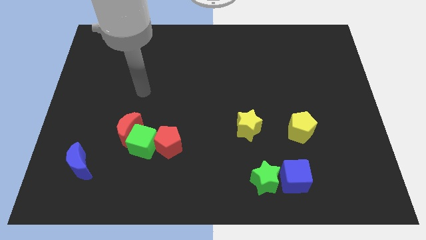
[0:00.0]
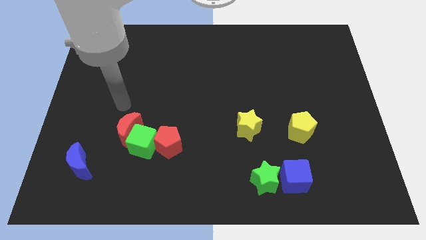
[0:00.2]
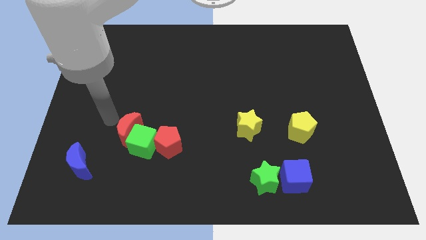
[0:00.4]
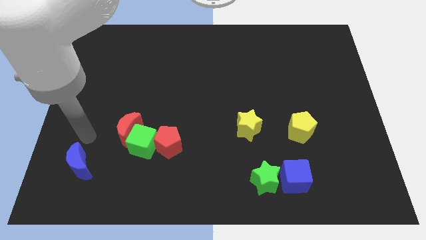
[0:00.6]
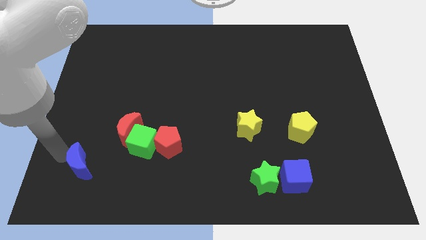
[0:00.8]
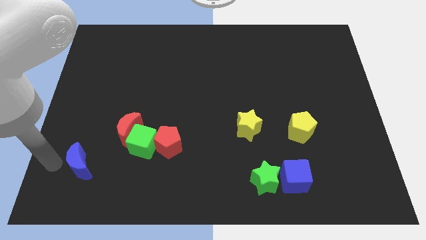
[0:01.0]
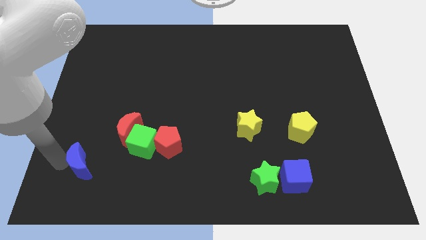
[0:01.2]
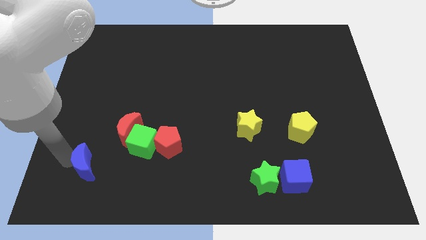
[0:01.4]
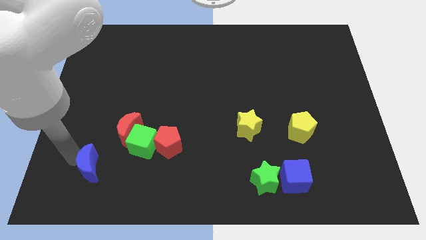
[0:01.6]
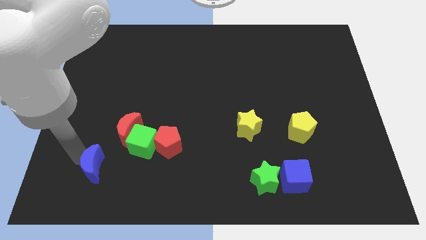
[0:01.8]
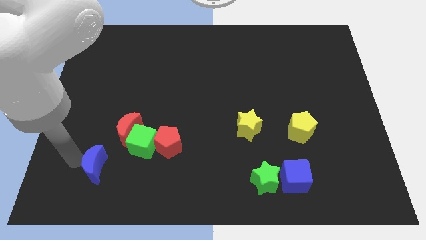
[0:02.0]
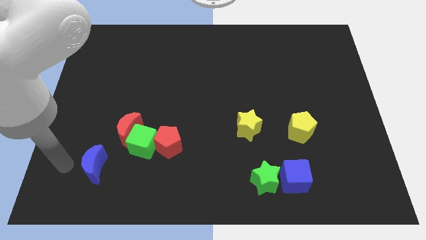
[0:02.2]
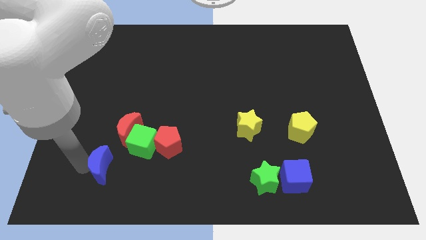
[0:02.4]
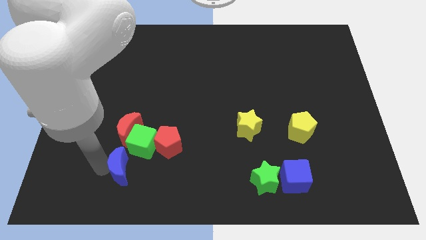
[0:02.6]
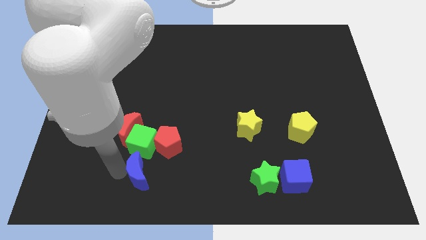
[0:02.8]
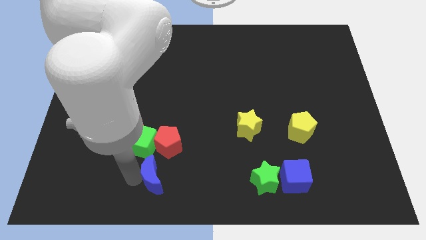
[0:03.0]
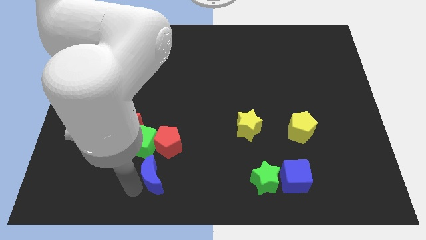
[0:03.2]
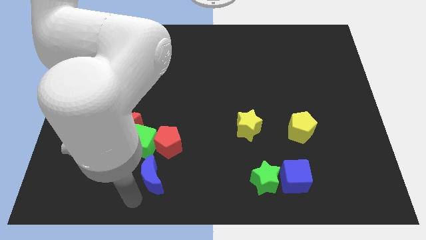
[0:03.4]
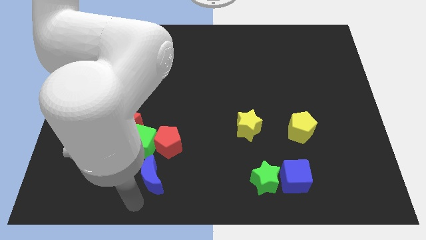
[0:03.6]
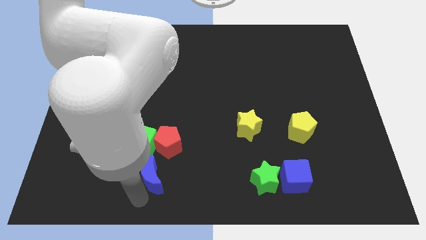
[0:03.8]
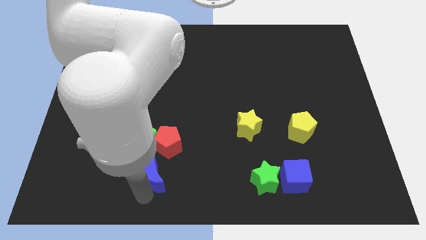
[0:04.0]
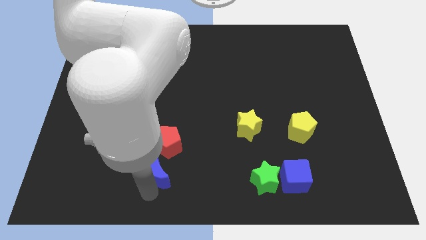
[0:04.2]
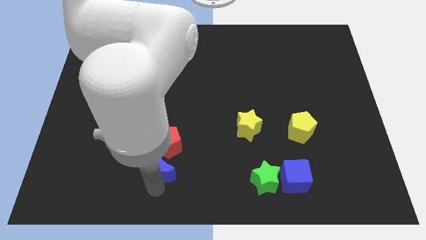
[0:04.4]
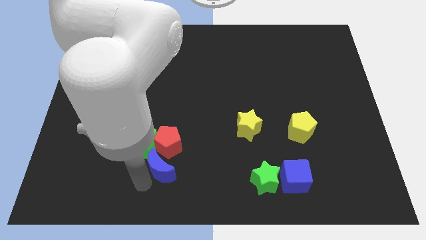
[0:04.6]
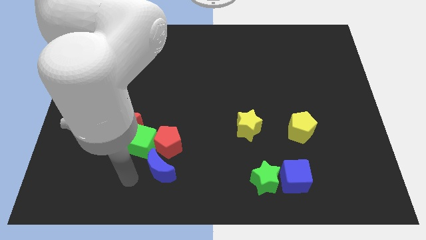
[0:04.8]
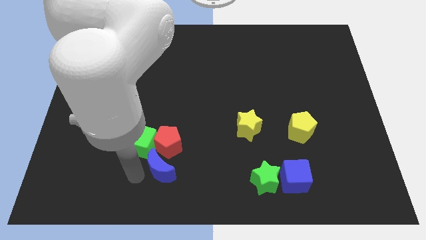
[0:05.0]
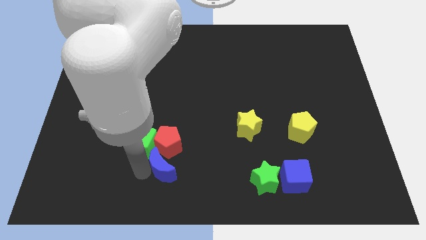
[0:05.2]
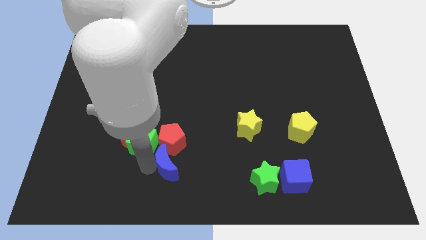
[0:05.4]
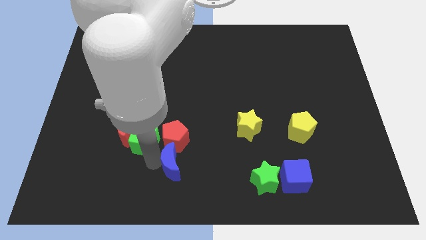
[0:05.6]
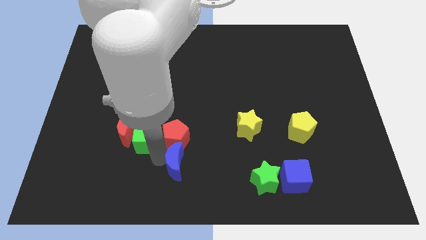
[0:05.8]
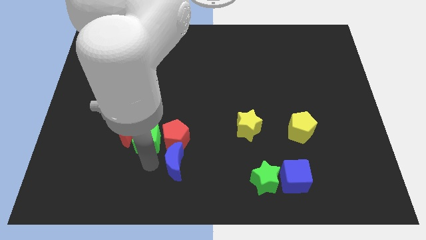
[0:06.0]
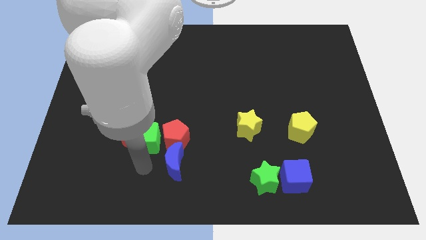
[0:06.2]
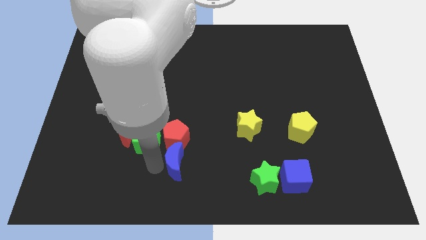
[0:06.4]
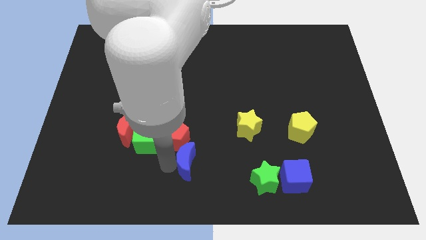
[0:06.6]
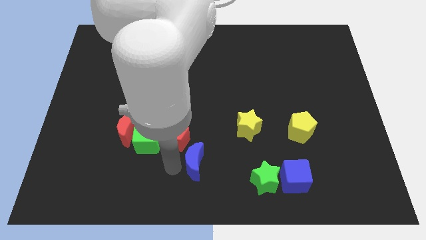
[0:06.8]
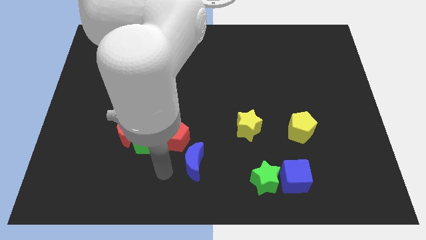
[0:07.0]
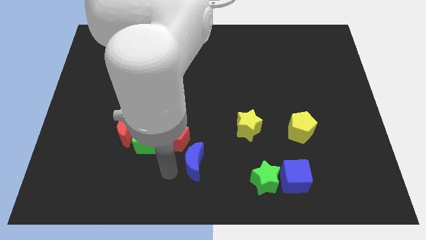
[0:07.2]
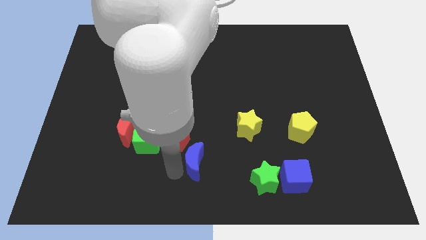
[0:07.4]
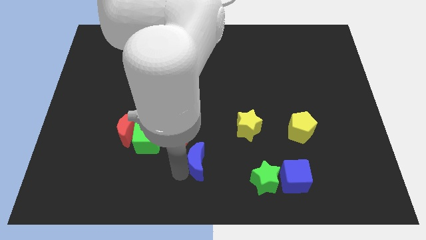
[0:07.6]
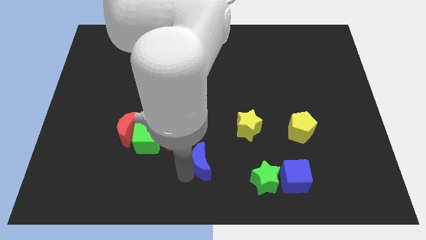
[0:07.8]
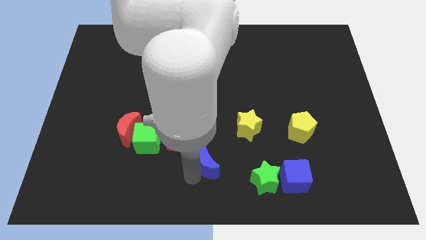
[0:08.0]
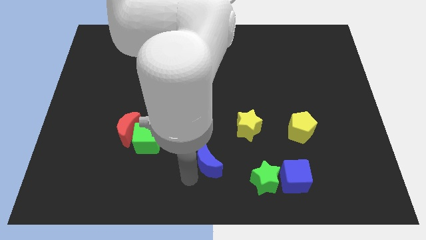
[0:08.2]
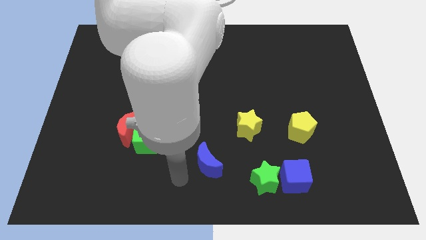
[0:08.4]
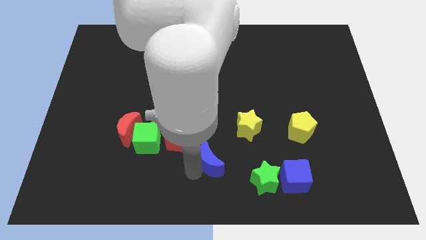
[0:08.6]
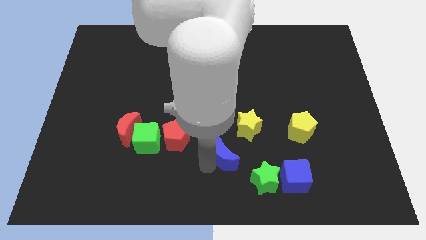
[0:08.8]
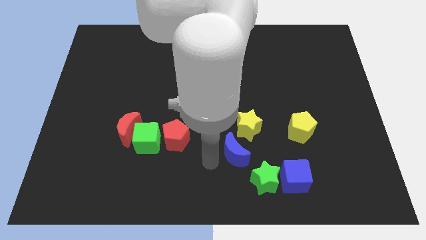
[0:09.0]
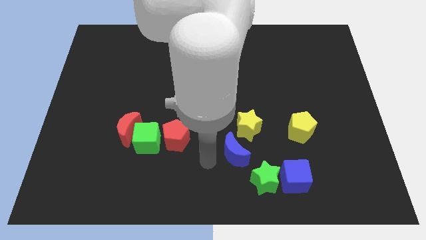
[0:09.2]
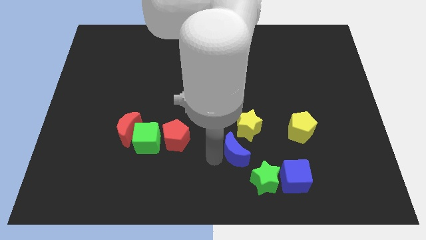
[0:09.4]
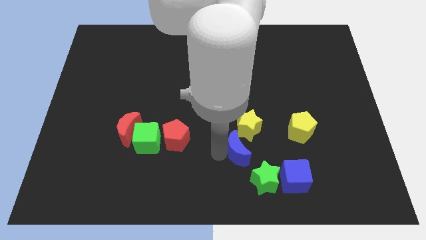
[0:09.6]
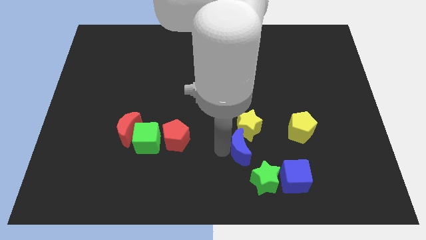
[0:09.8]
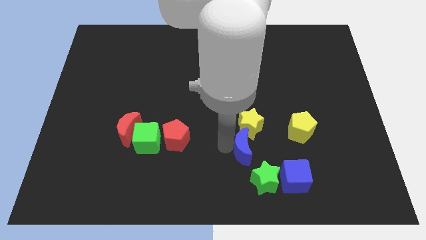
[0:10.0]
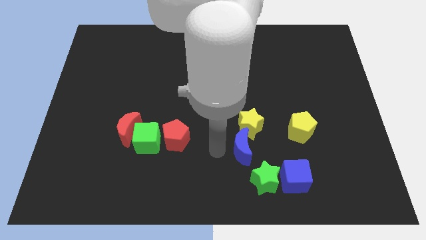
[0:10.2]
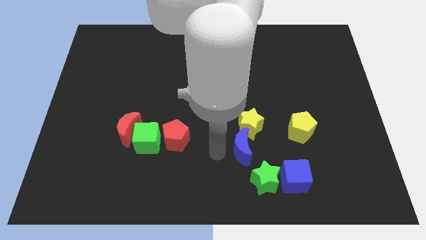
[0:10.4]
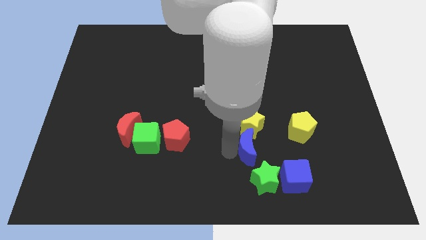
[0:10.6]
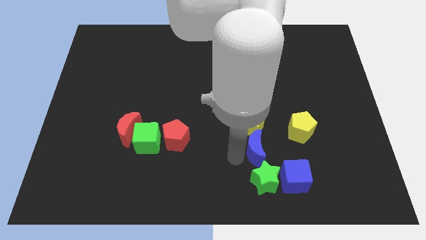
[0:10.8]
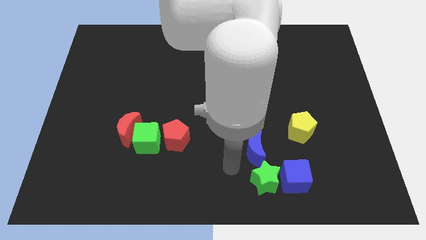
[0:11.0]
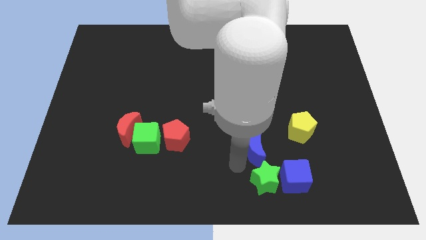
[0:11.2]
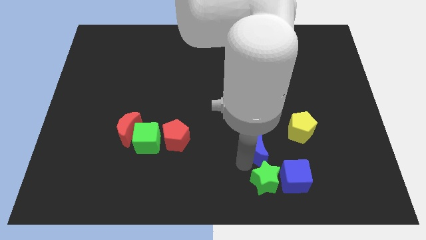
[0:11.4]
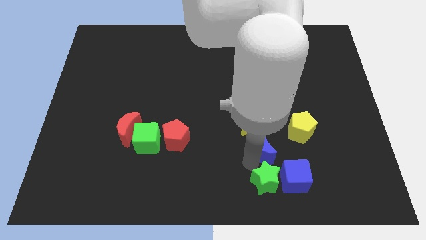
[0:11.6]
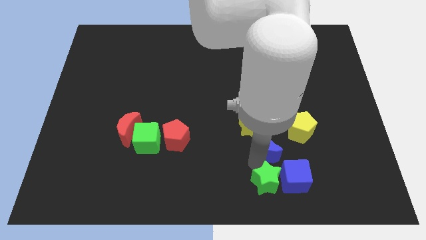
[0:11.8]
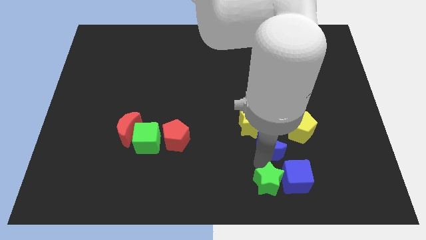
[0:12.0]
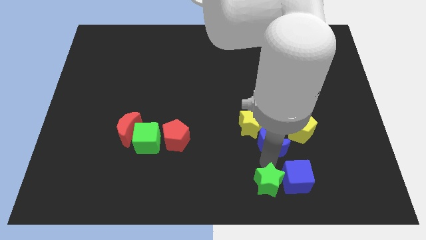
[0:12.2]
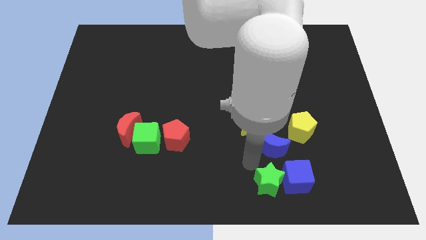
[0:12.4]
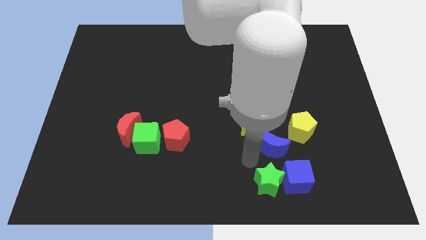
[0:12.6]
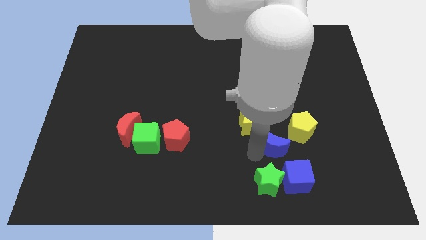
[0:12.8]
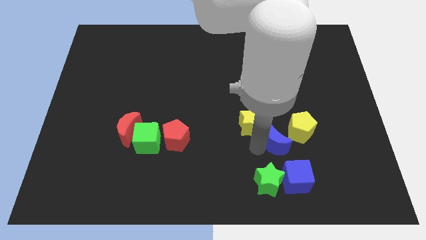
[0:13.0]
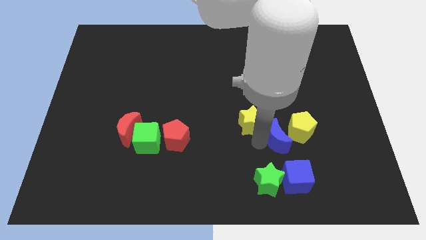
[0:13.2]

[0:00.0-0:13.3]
move the blue moon next to the yellow pentagon
